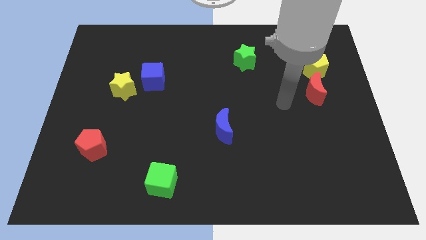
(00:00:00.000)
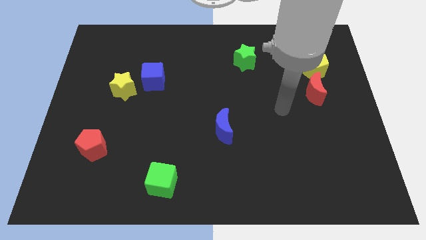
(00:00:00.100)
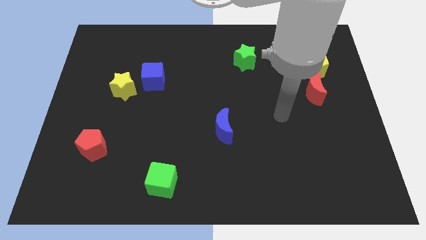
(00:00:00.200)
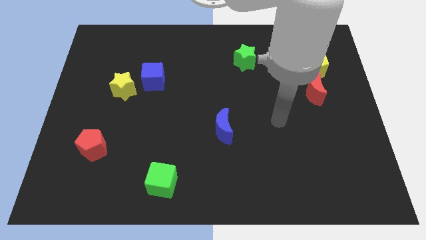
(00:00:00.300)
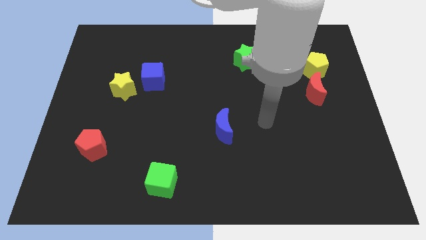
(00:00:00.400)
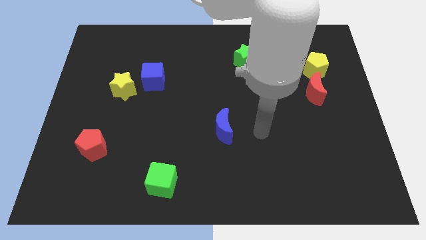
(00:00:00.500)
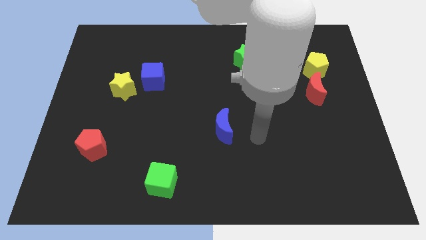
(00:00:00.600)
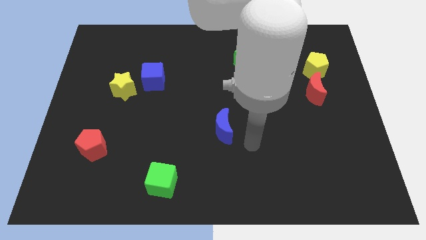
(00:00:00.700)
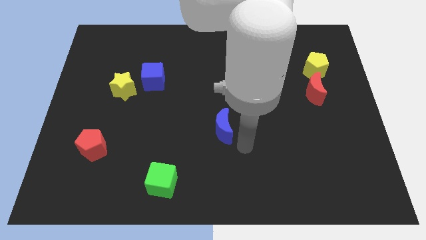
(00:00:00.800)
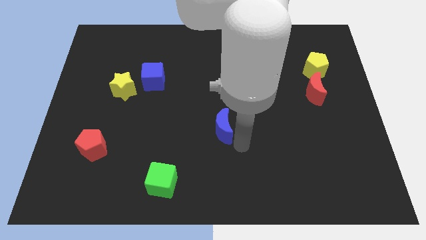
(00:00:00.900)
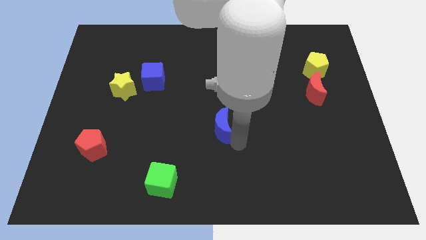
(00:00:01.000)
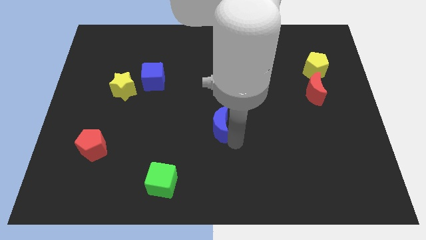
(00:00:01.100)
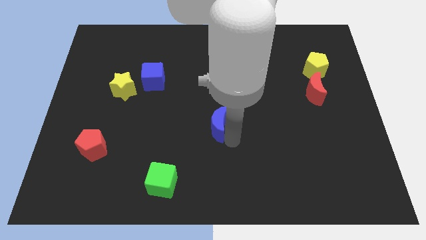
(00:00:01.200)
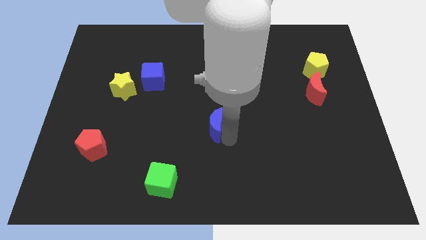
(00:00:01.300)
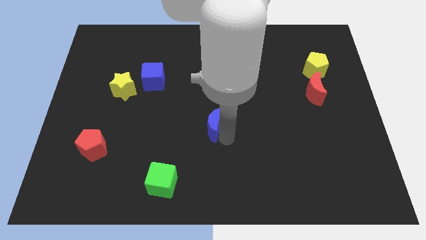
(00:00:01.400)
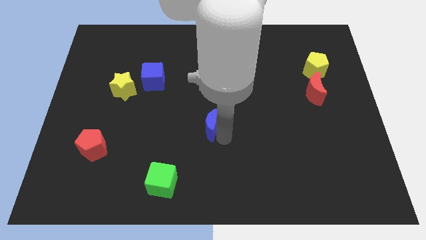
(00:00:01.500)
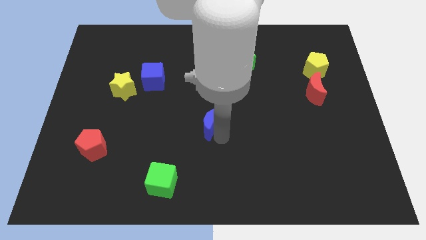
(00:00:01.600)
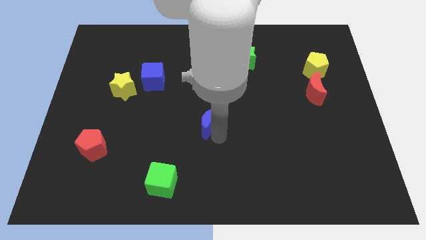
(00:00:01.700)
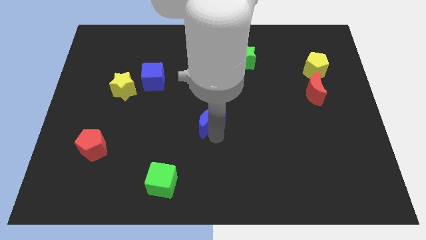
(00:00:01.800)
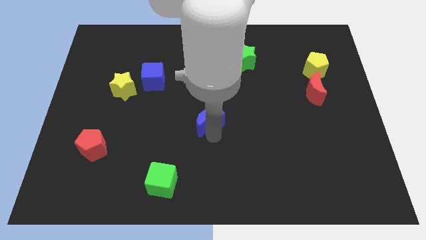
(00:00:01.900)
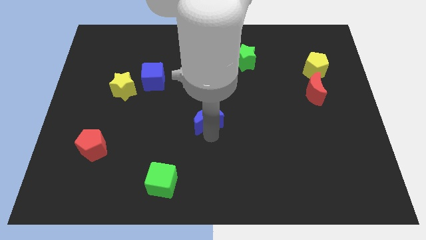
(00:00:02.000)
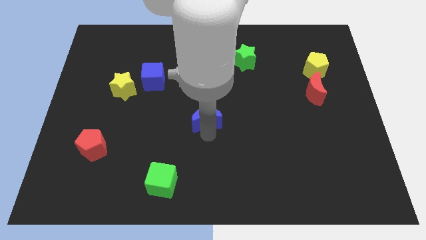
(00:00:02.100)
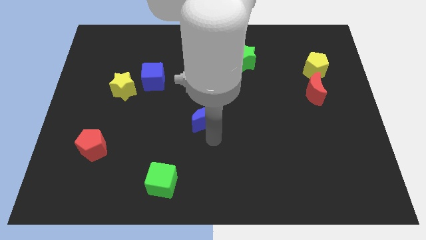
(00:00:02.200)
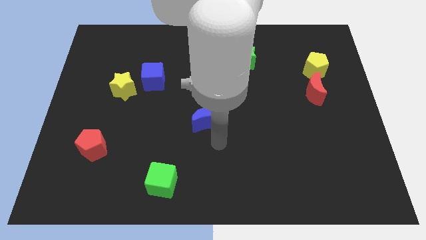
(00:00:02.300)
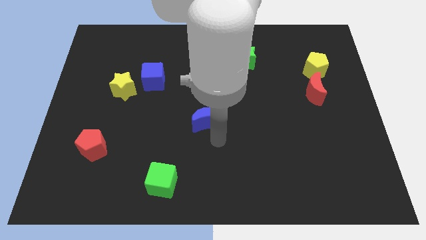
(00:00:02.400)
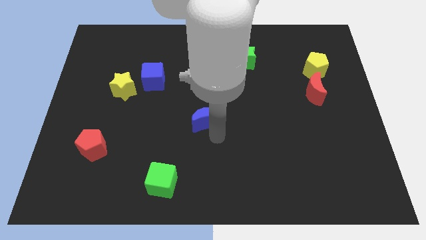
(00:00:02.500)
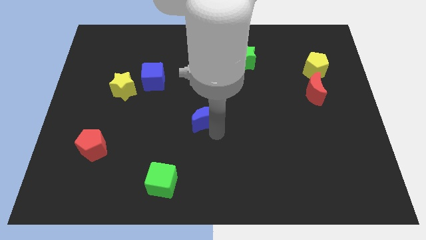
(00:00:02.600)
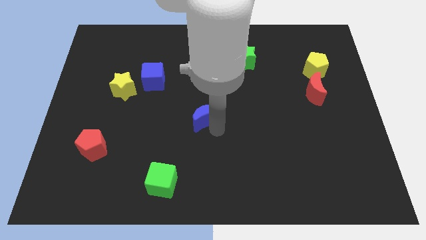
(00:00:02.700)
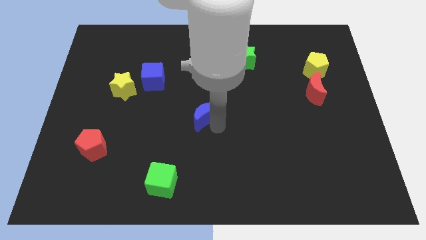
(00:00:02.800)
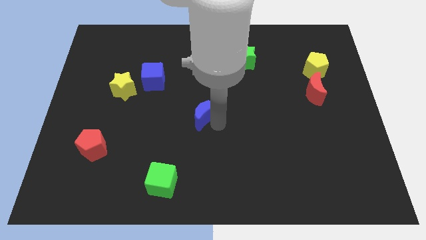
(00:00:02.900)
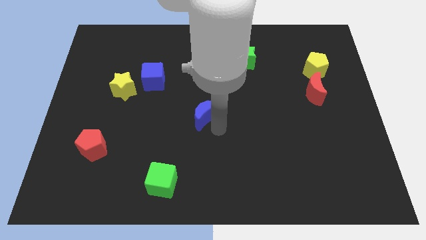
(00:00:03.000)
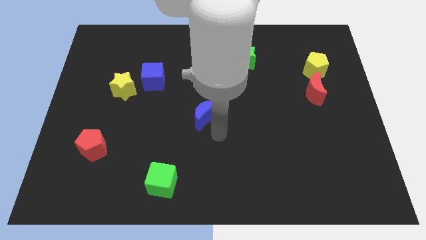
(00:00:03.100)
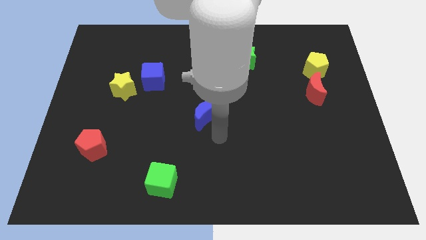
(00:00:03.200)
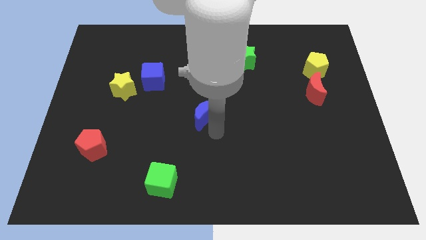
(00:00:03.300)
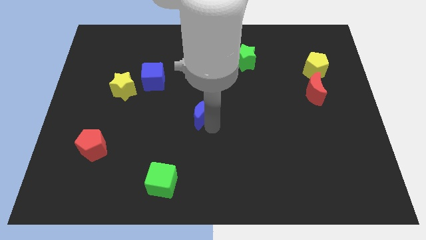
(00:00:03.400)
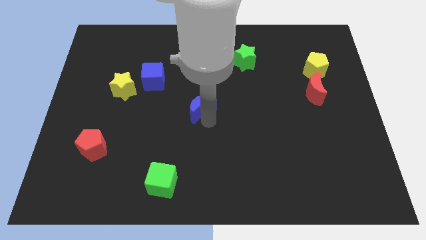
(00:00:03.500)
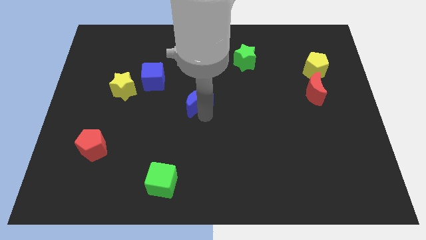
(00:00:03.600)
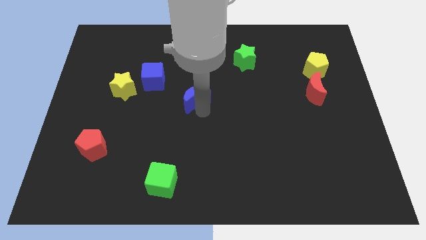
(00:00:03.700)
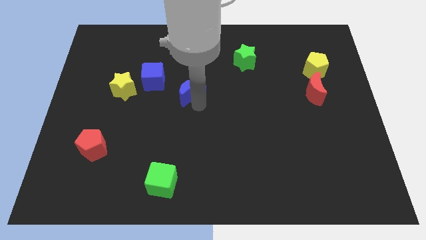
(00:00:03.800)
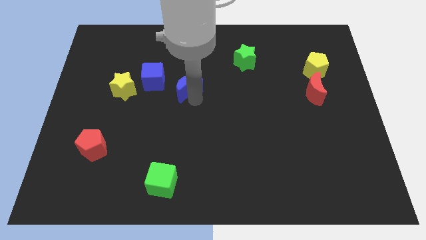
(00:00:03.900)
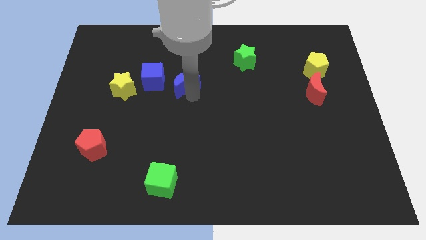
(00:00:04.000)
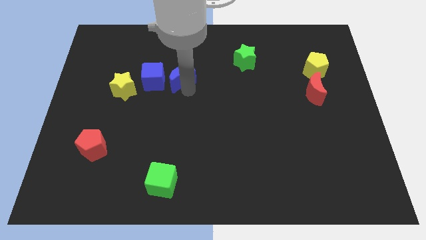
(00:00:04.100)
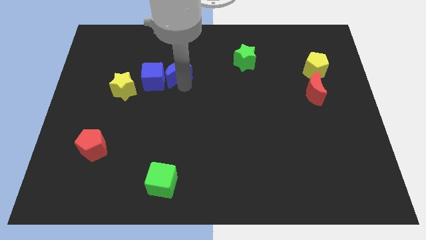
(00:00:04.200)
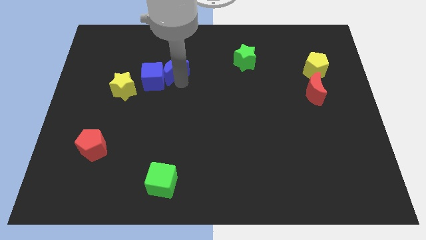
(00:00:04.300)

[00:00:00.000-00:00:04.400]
push the blue moon upwards and then left

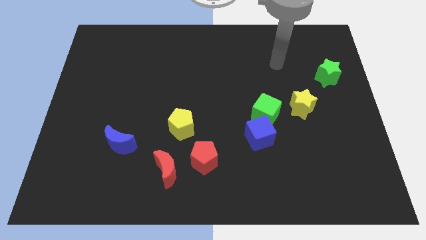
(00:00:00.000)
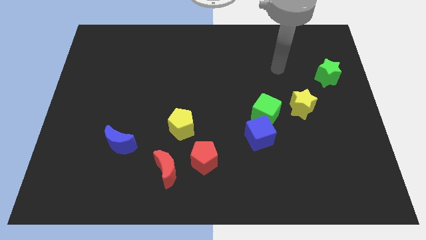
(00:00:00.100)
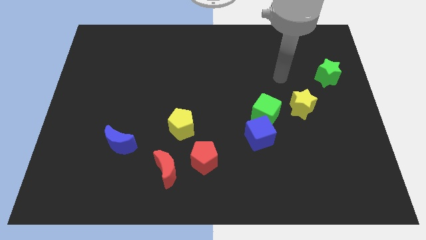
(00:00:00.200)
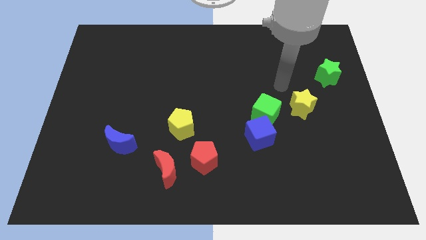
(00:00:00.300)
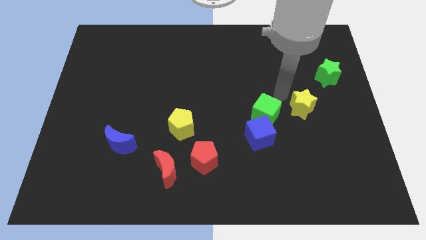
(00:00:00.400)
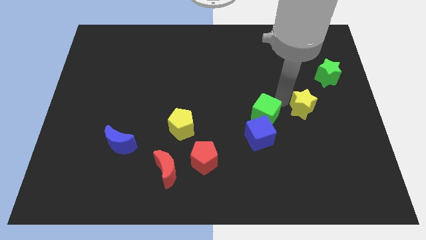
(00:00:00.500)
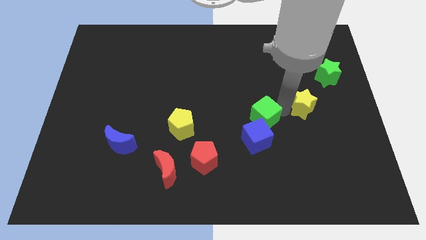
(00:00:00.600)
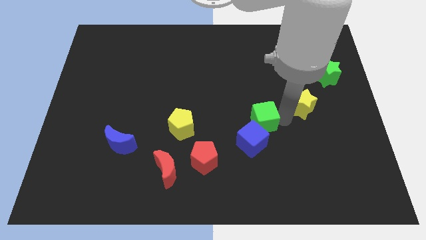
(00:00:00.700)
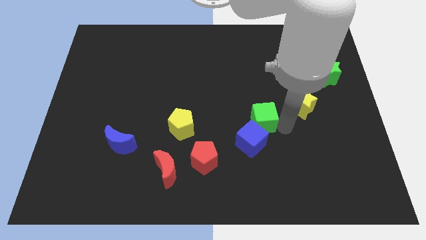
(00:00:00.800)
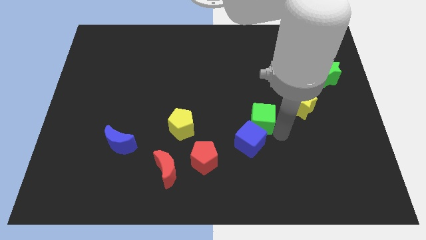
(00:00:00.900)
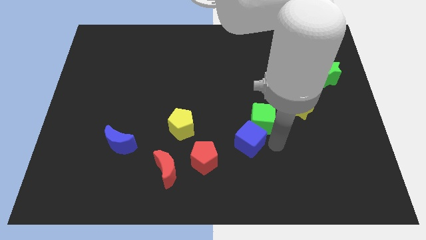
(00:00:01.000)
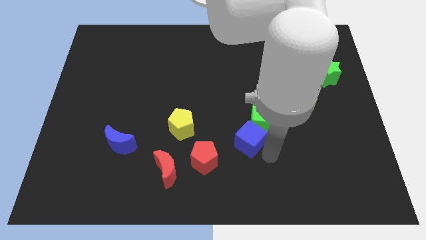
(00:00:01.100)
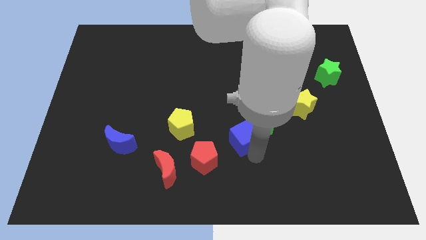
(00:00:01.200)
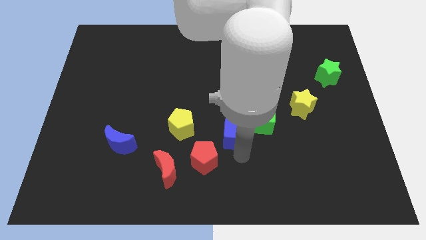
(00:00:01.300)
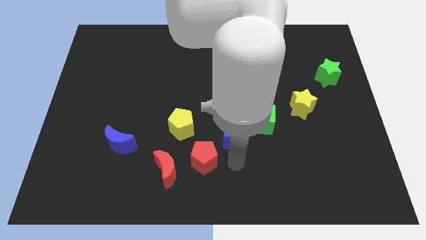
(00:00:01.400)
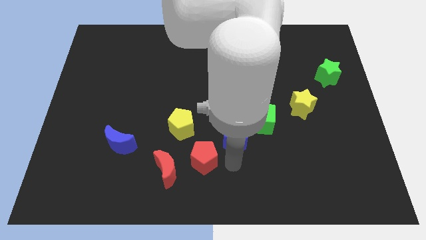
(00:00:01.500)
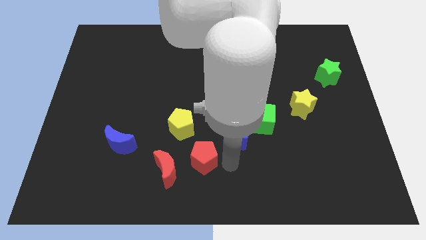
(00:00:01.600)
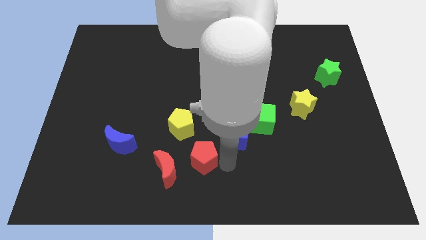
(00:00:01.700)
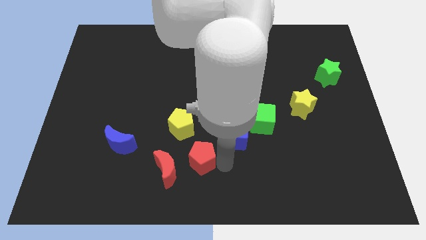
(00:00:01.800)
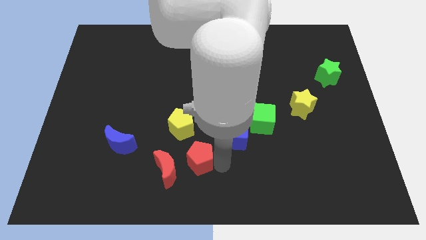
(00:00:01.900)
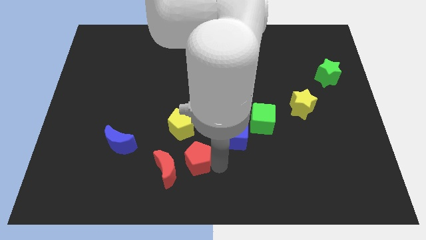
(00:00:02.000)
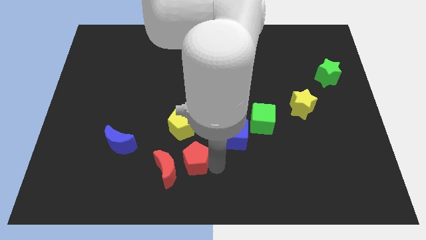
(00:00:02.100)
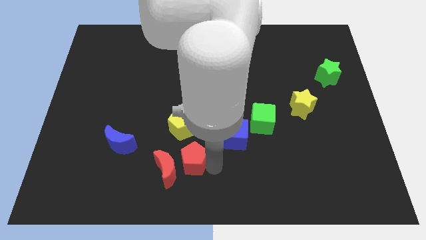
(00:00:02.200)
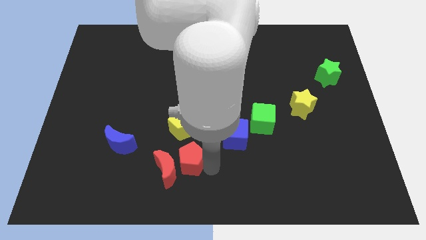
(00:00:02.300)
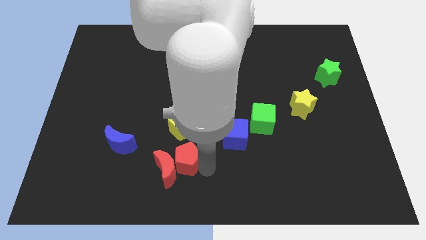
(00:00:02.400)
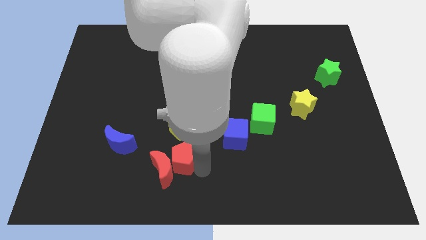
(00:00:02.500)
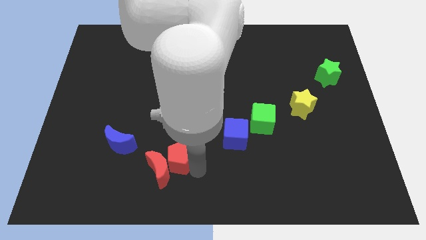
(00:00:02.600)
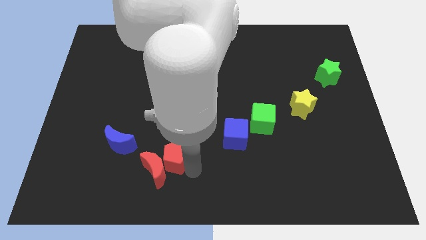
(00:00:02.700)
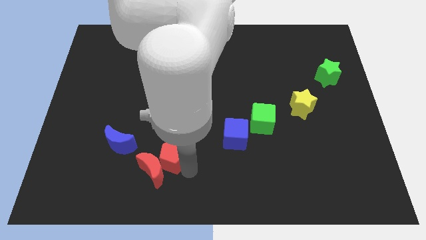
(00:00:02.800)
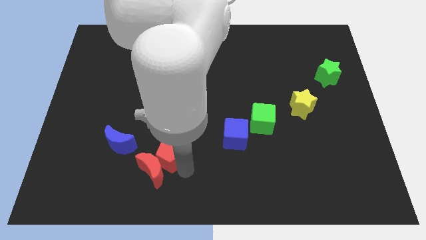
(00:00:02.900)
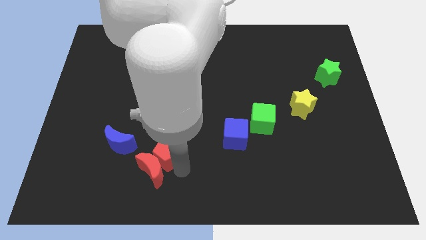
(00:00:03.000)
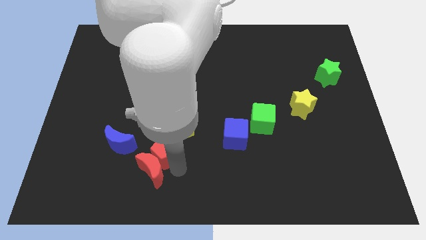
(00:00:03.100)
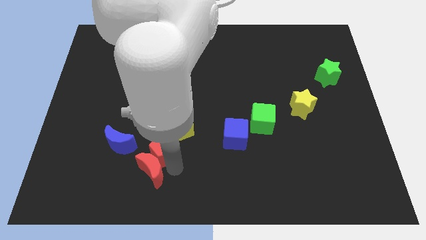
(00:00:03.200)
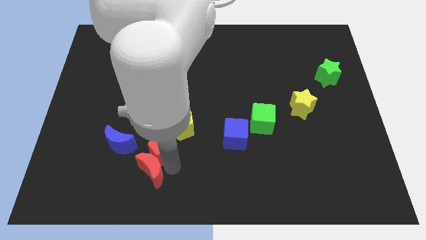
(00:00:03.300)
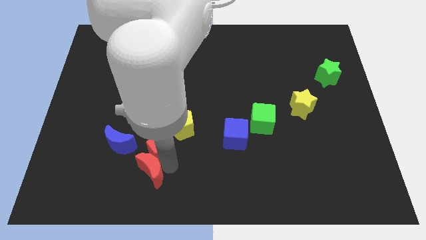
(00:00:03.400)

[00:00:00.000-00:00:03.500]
slide the red pentagon a little up and then left

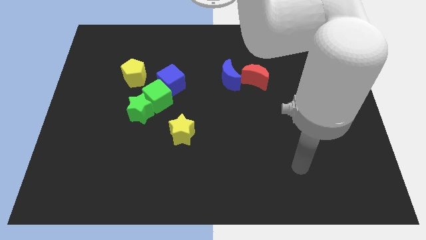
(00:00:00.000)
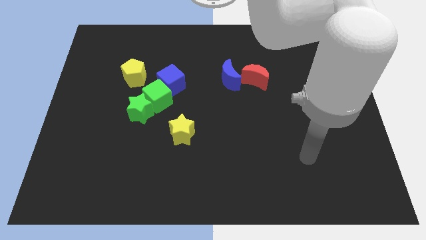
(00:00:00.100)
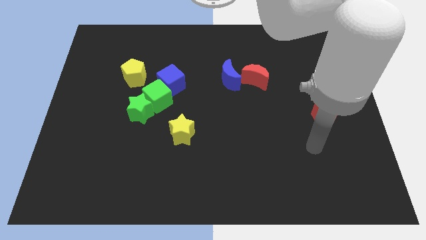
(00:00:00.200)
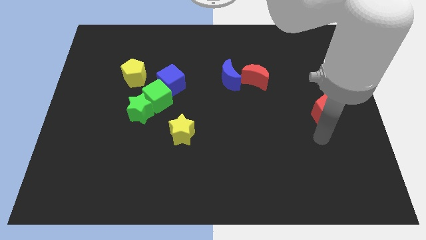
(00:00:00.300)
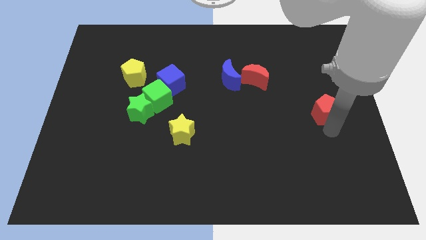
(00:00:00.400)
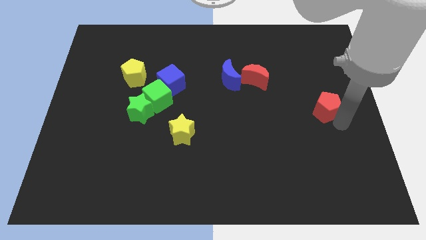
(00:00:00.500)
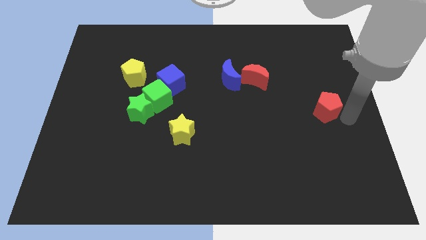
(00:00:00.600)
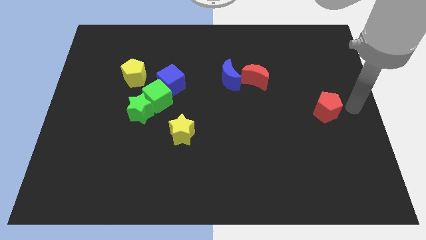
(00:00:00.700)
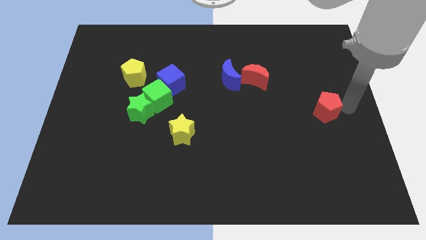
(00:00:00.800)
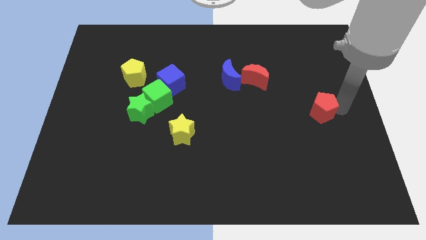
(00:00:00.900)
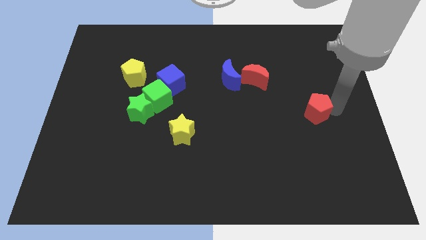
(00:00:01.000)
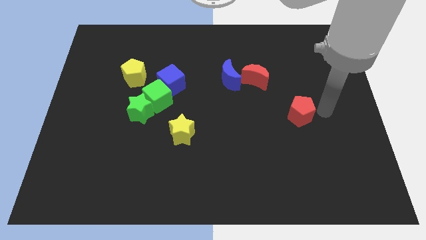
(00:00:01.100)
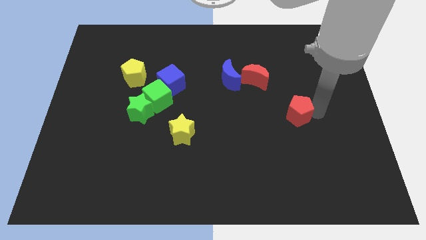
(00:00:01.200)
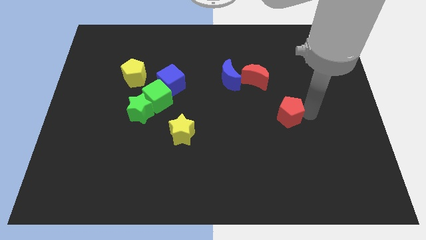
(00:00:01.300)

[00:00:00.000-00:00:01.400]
slightly push the red pentagon to the left
